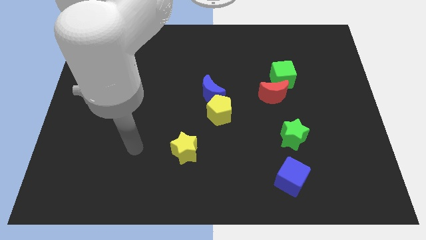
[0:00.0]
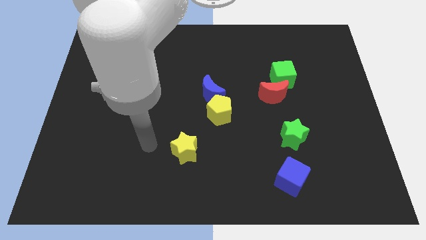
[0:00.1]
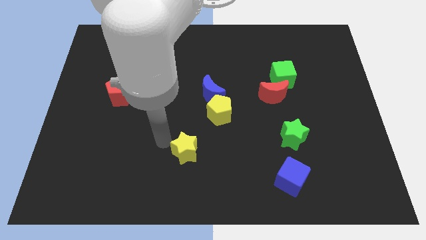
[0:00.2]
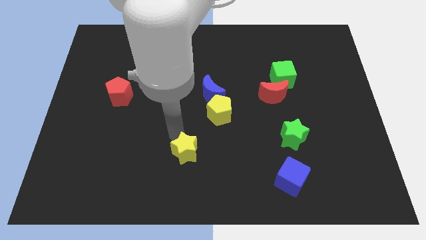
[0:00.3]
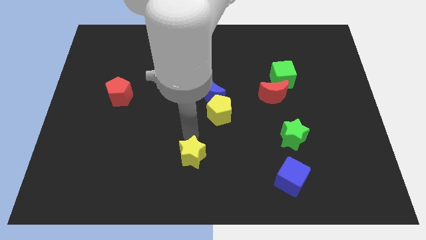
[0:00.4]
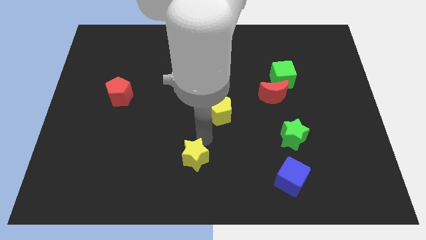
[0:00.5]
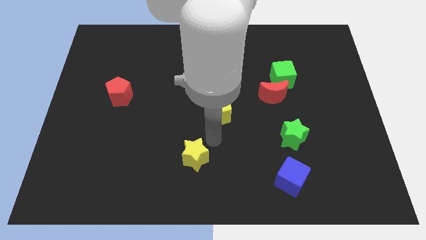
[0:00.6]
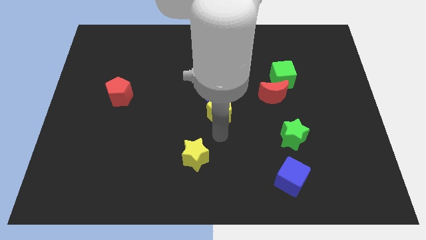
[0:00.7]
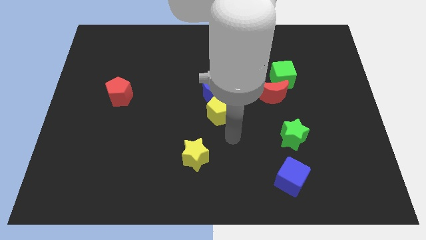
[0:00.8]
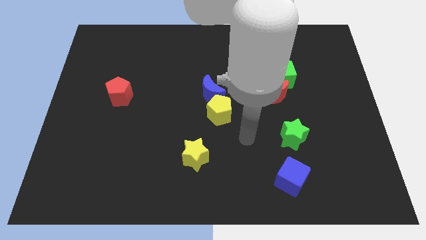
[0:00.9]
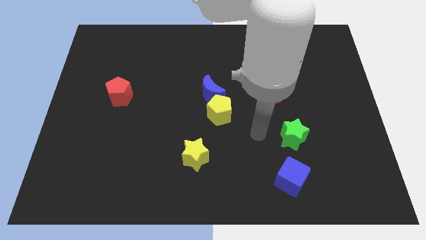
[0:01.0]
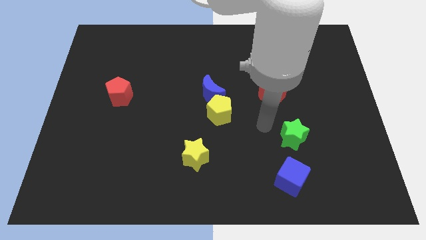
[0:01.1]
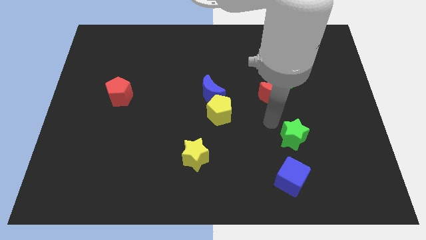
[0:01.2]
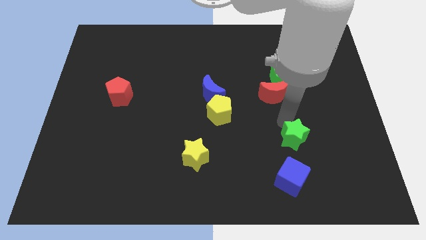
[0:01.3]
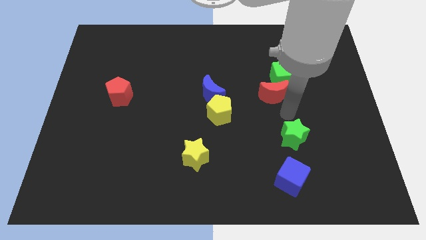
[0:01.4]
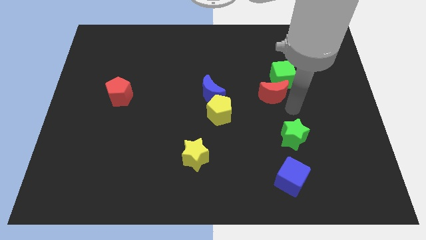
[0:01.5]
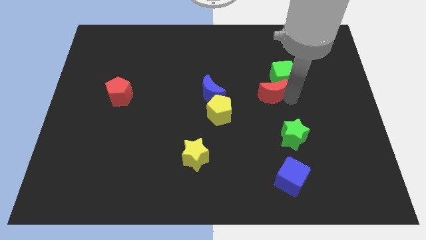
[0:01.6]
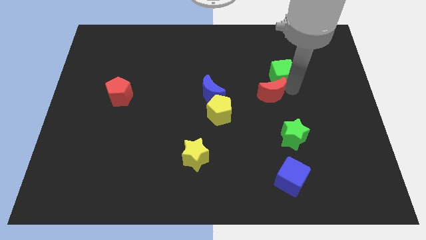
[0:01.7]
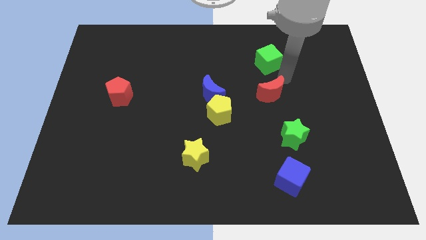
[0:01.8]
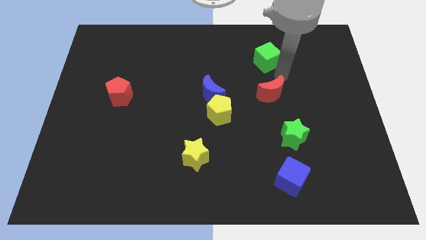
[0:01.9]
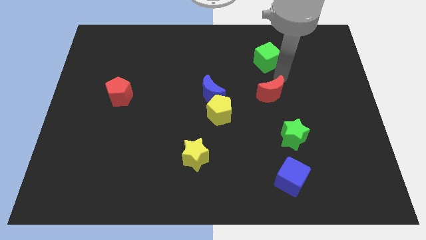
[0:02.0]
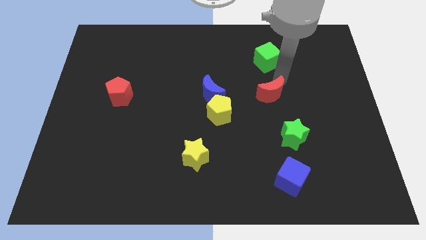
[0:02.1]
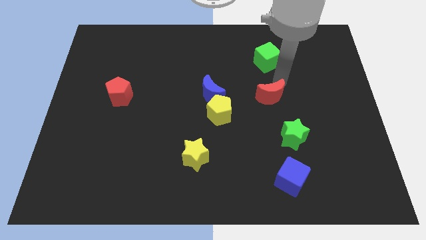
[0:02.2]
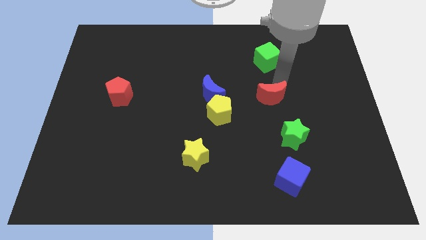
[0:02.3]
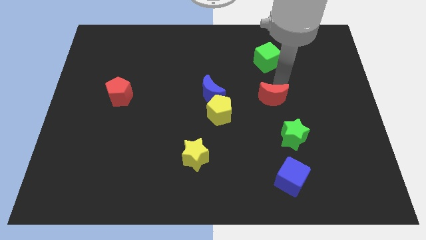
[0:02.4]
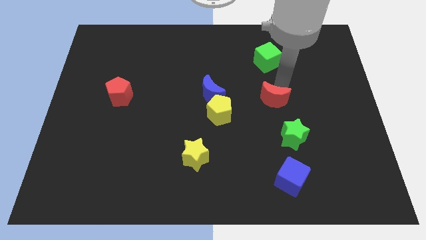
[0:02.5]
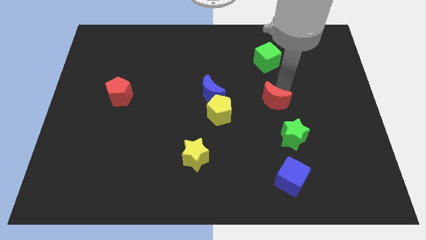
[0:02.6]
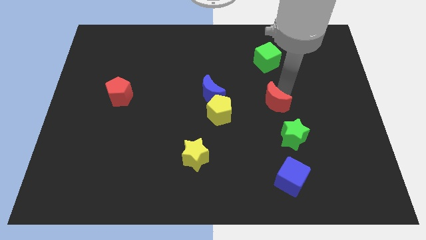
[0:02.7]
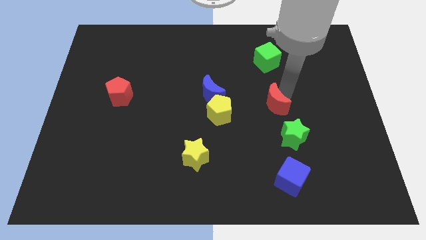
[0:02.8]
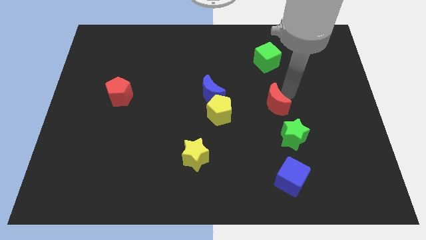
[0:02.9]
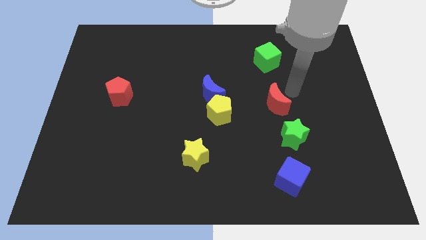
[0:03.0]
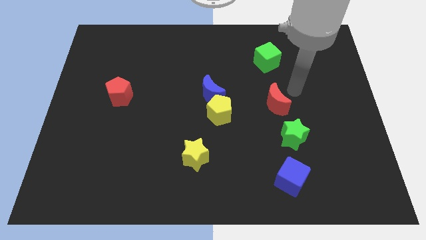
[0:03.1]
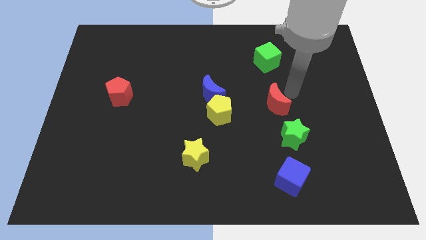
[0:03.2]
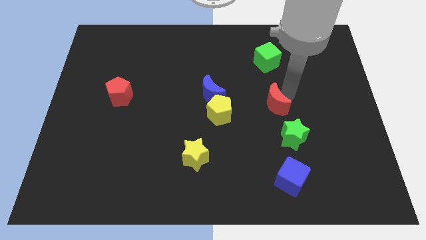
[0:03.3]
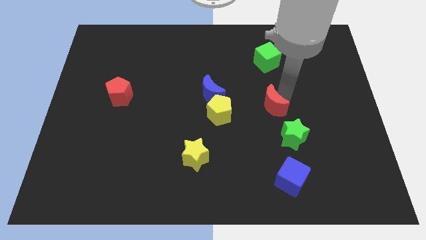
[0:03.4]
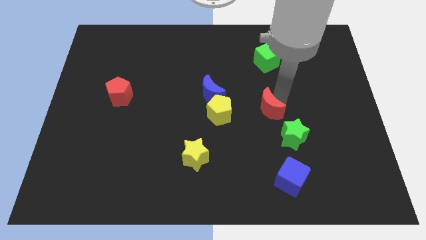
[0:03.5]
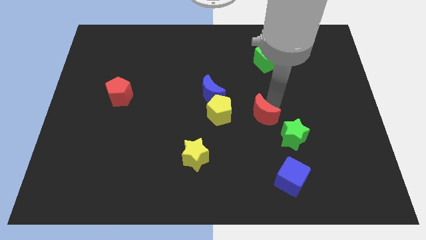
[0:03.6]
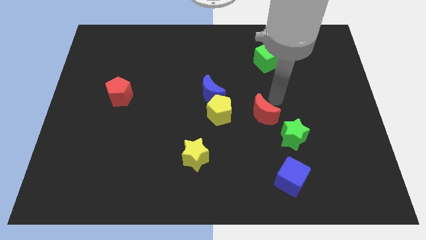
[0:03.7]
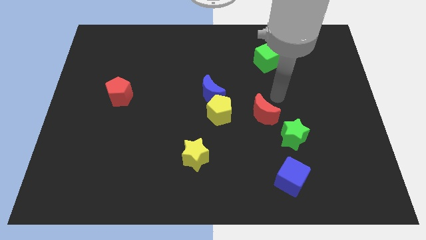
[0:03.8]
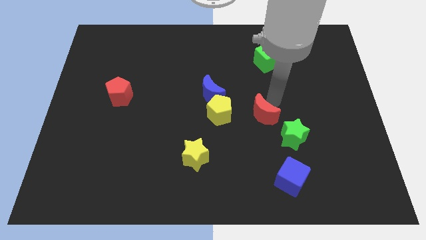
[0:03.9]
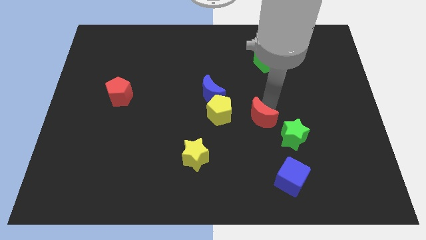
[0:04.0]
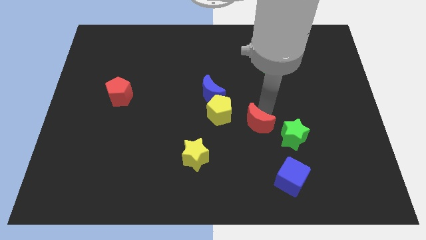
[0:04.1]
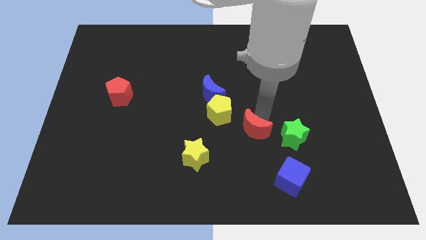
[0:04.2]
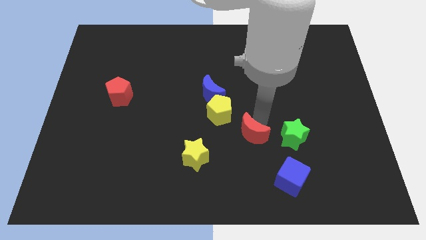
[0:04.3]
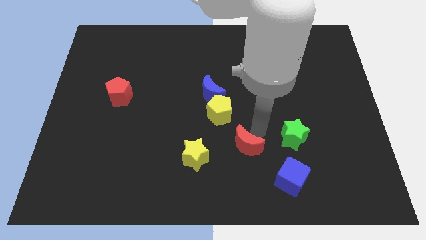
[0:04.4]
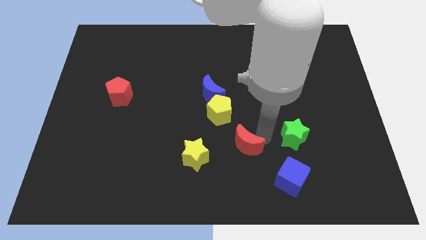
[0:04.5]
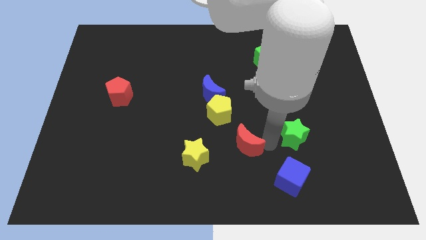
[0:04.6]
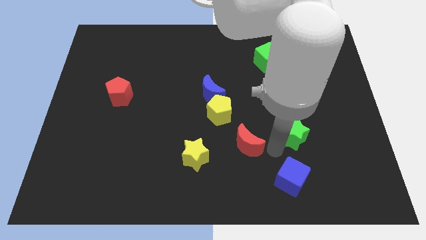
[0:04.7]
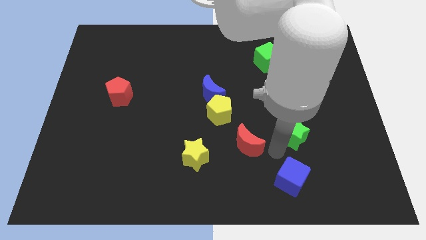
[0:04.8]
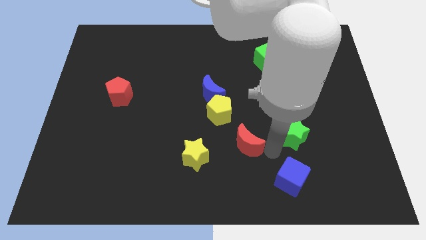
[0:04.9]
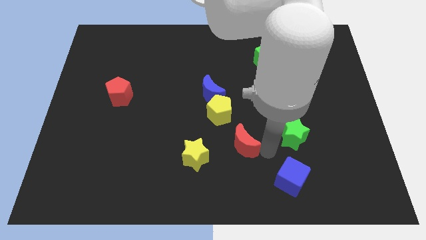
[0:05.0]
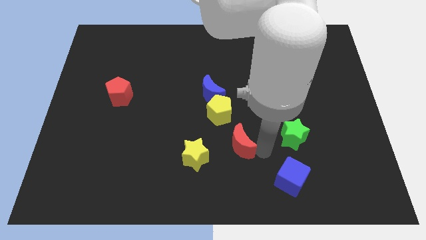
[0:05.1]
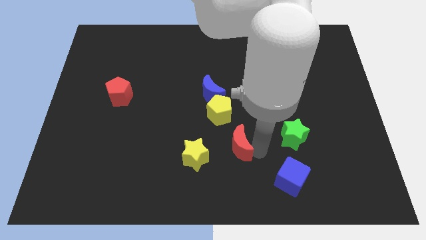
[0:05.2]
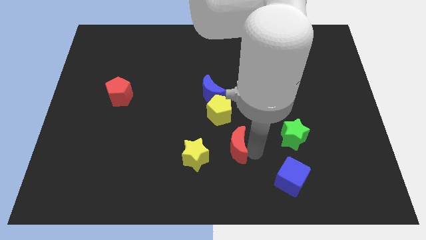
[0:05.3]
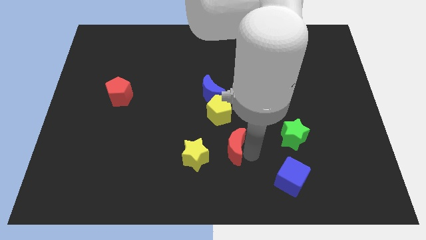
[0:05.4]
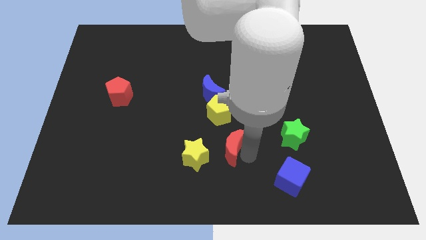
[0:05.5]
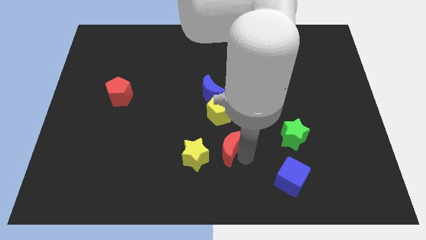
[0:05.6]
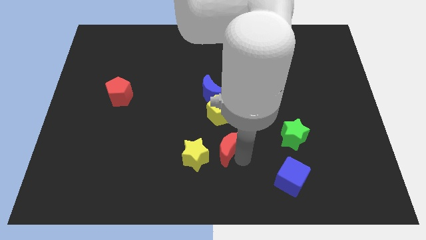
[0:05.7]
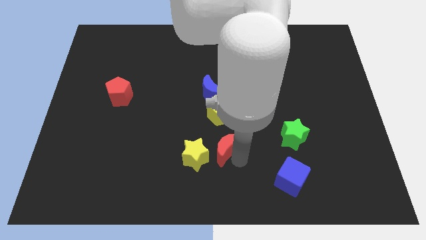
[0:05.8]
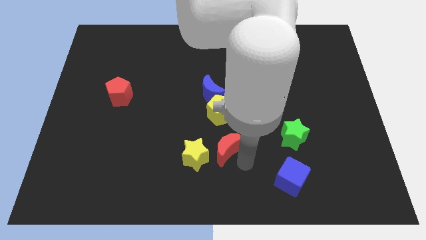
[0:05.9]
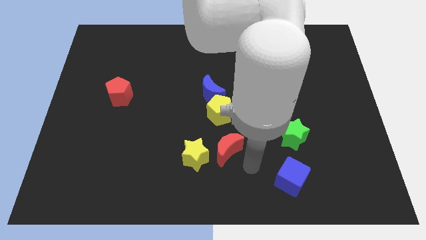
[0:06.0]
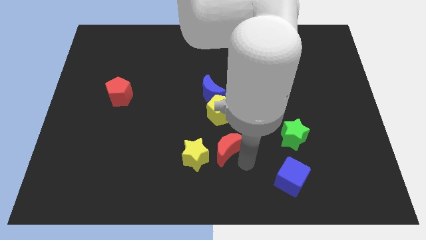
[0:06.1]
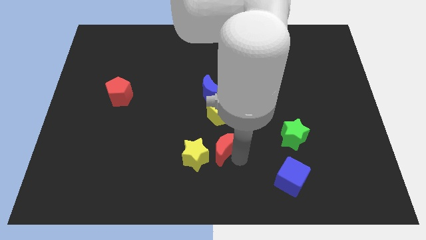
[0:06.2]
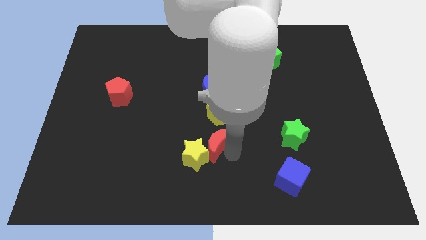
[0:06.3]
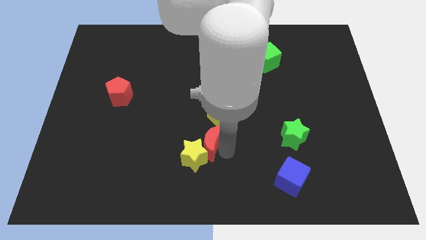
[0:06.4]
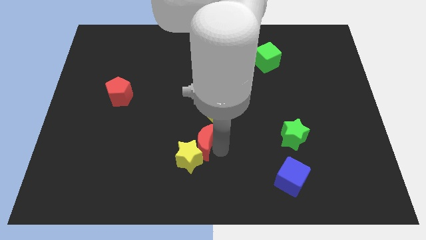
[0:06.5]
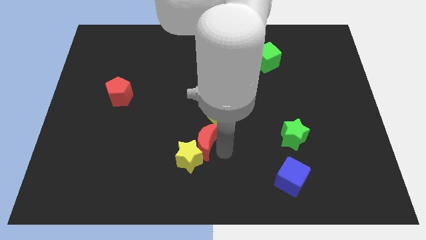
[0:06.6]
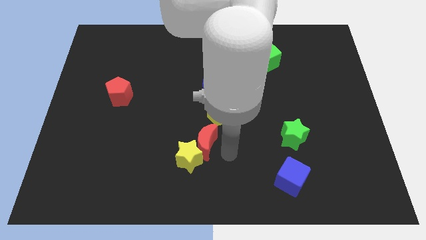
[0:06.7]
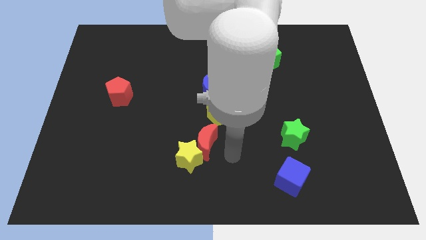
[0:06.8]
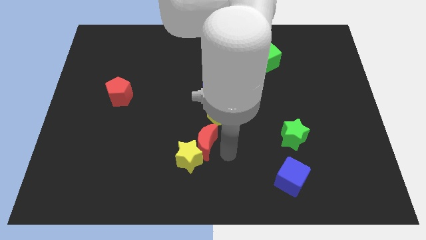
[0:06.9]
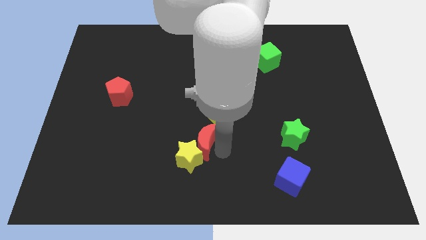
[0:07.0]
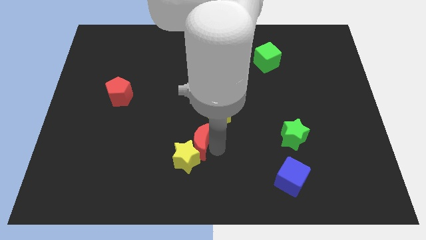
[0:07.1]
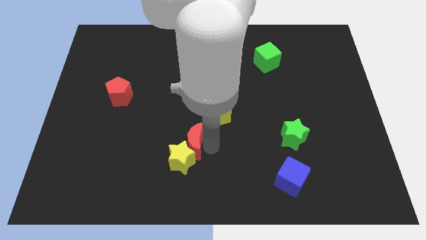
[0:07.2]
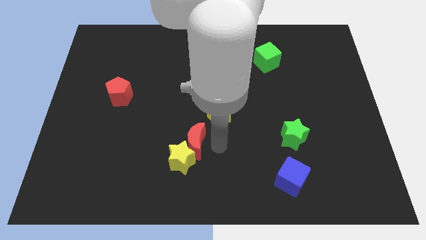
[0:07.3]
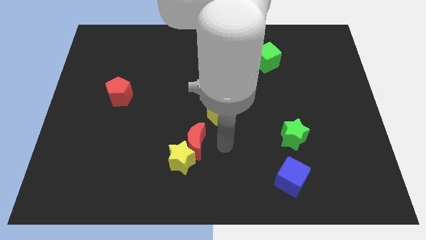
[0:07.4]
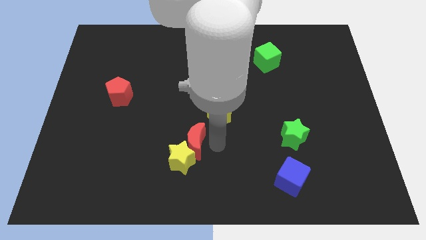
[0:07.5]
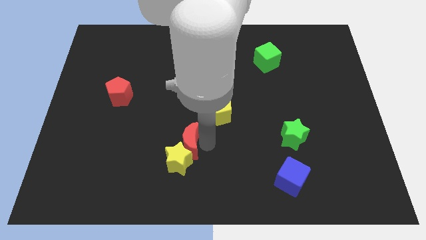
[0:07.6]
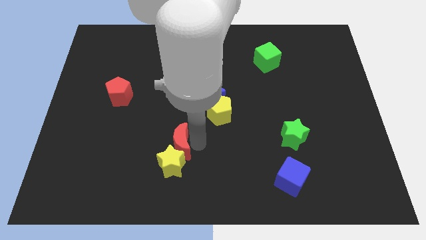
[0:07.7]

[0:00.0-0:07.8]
push the red moon to the top left side of the yellow star

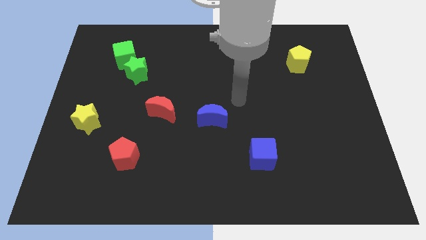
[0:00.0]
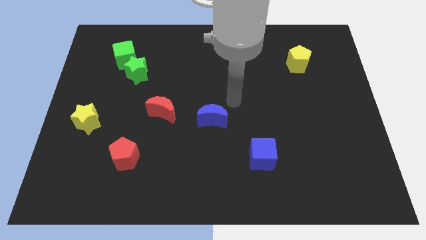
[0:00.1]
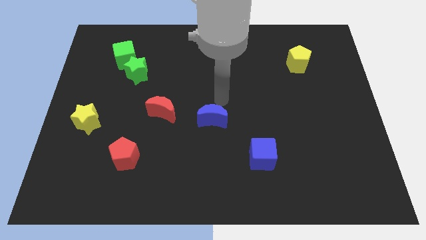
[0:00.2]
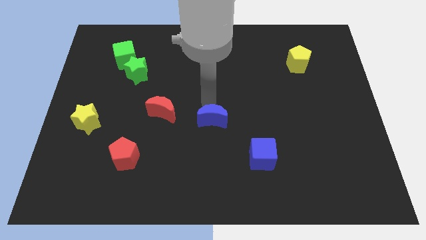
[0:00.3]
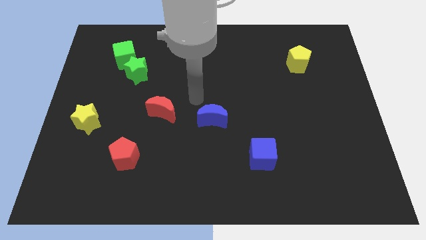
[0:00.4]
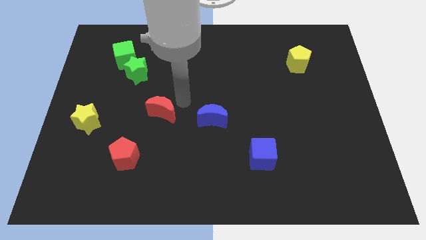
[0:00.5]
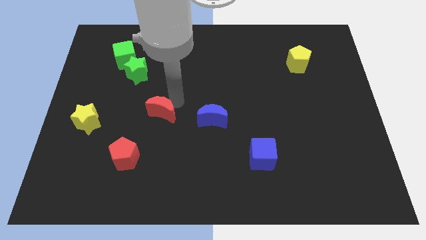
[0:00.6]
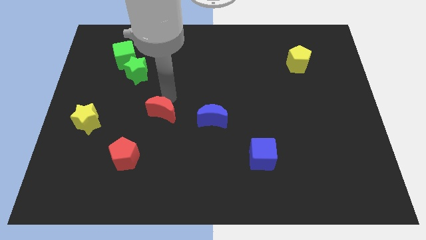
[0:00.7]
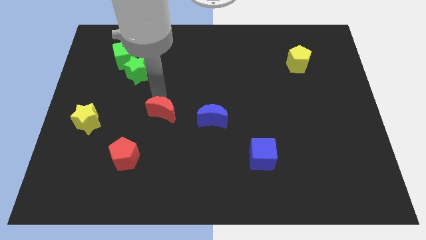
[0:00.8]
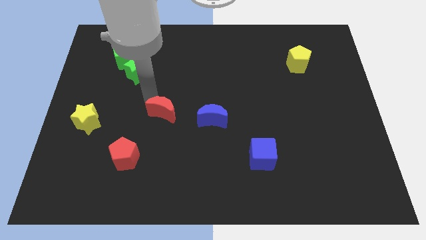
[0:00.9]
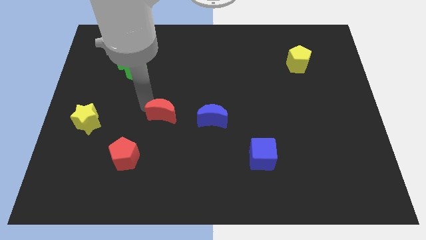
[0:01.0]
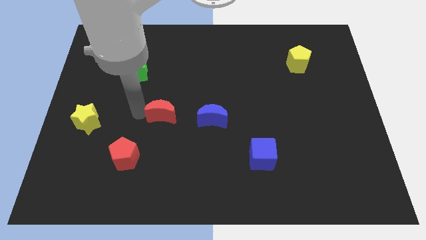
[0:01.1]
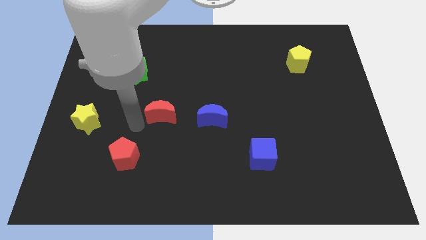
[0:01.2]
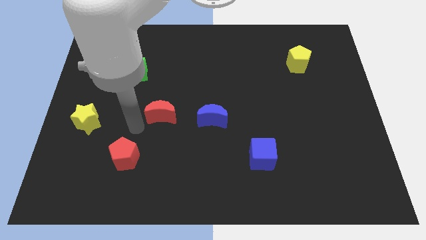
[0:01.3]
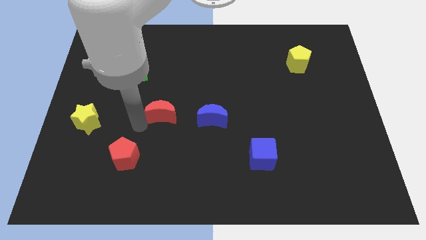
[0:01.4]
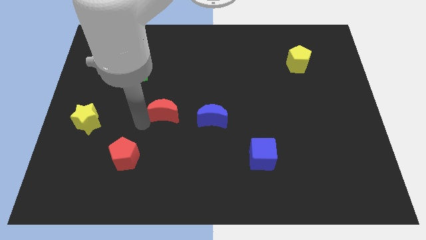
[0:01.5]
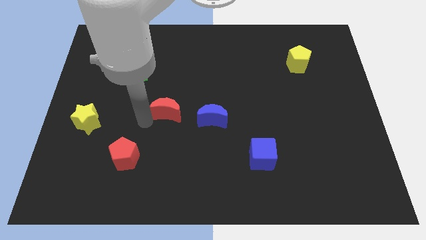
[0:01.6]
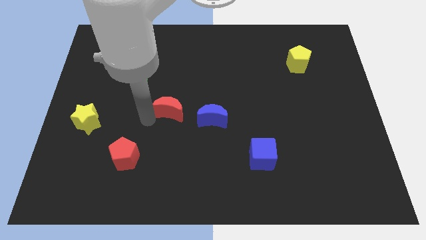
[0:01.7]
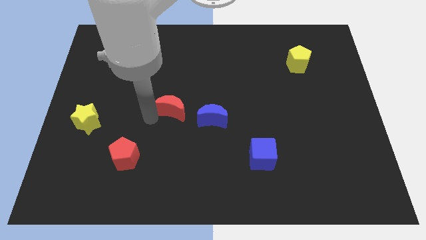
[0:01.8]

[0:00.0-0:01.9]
slide the red moon to the top left side of the blue moon
